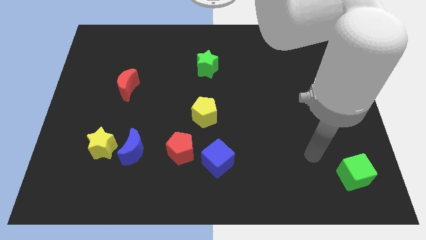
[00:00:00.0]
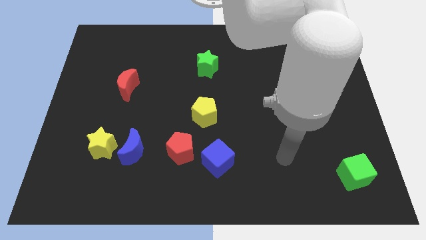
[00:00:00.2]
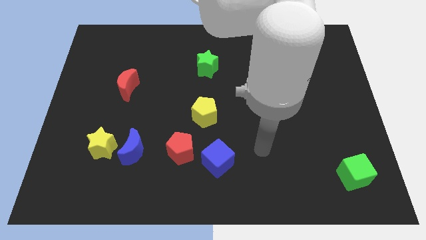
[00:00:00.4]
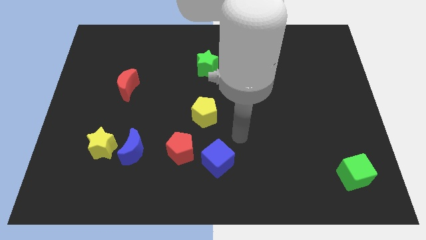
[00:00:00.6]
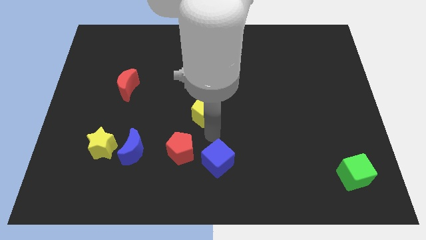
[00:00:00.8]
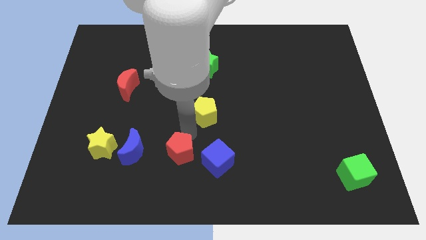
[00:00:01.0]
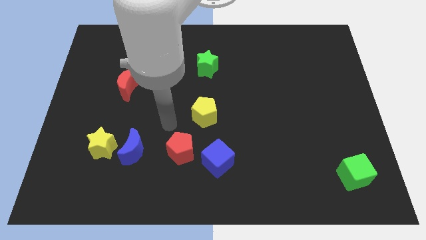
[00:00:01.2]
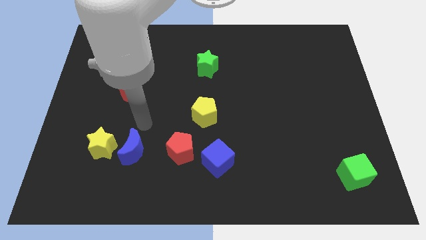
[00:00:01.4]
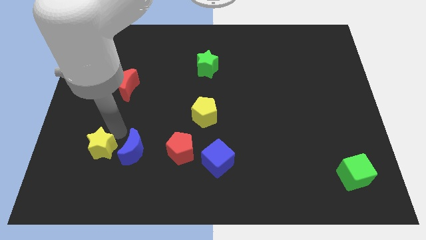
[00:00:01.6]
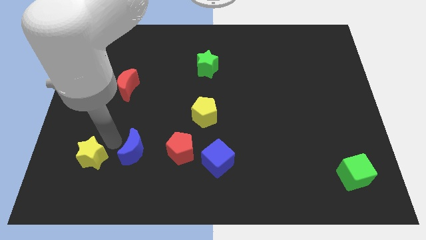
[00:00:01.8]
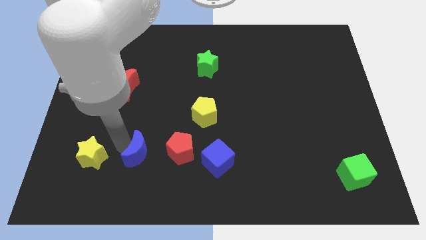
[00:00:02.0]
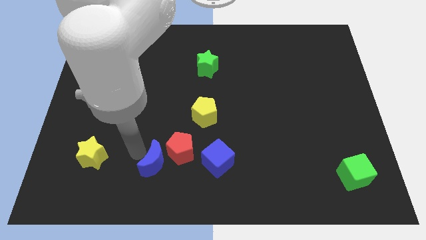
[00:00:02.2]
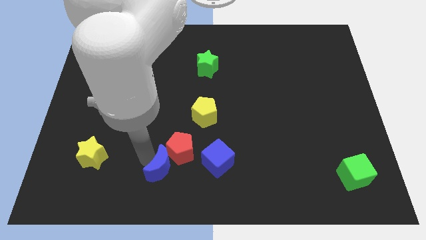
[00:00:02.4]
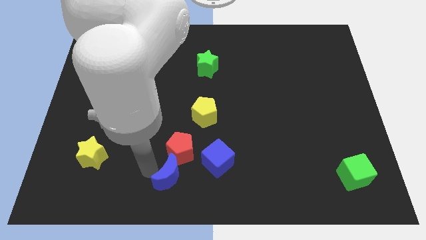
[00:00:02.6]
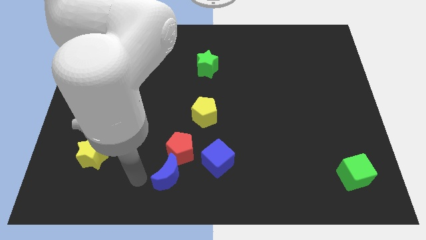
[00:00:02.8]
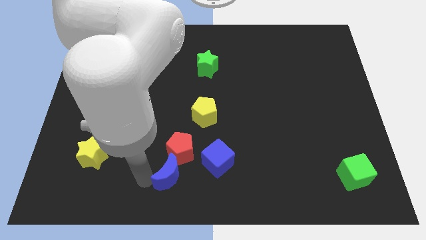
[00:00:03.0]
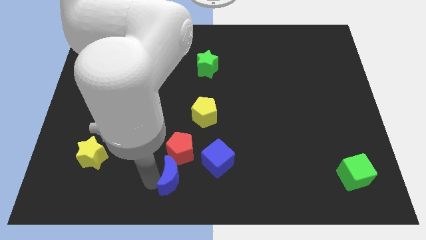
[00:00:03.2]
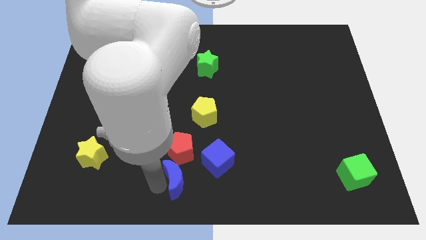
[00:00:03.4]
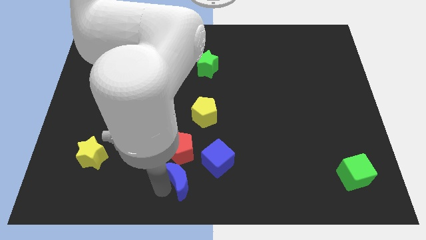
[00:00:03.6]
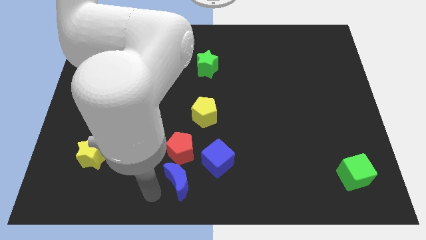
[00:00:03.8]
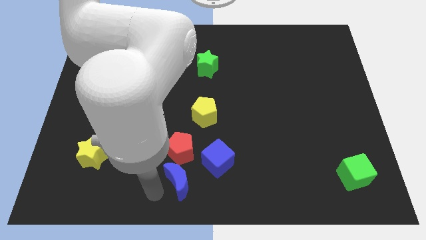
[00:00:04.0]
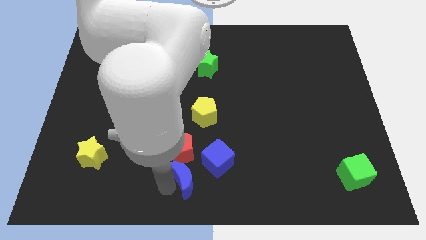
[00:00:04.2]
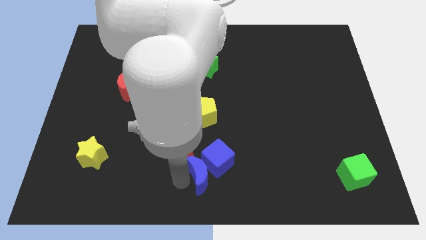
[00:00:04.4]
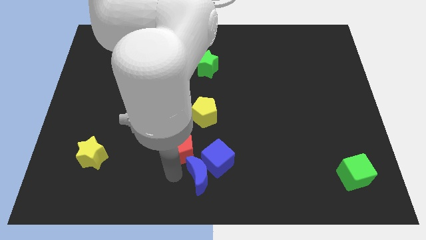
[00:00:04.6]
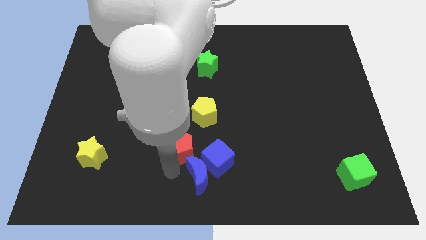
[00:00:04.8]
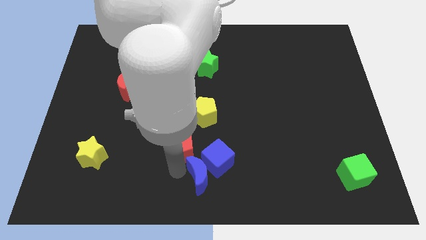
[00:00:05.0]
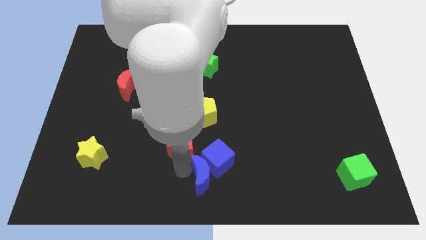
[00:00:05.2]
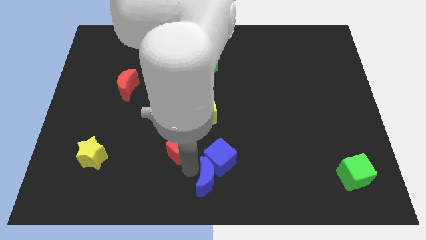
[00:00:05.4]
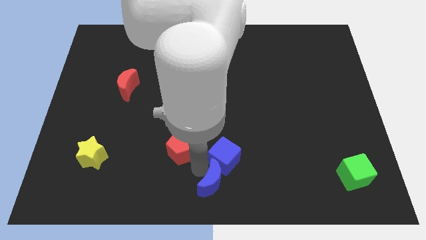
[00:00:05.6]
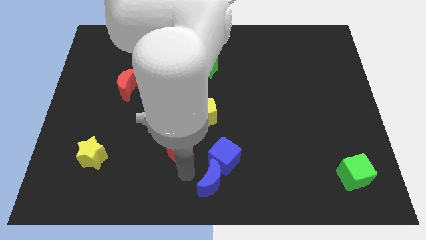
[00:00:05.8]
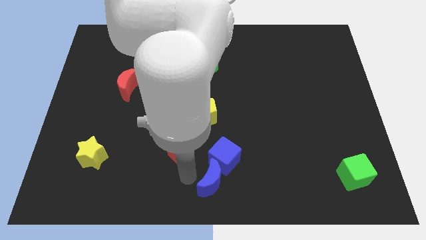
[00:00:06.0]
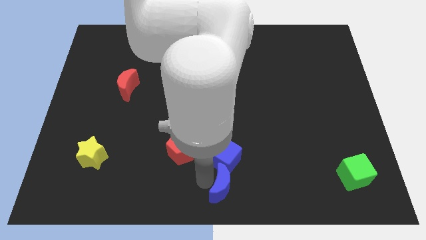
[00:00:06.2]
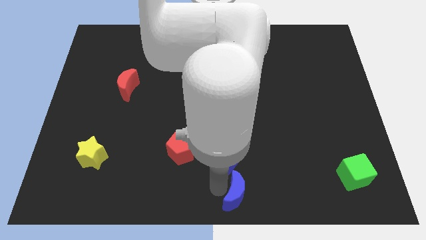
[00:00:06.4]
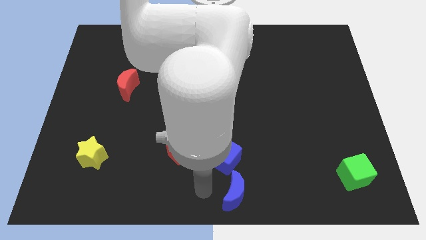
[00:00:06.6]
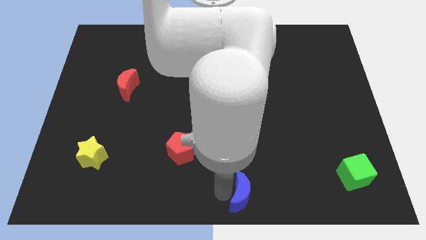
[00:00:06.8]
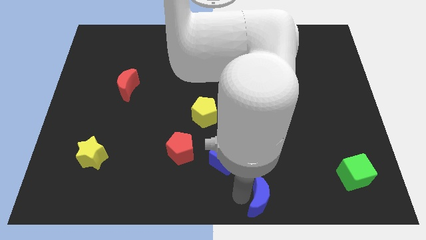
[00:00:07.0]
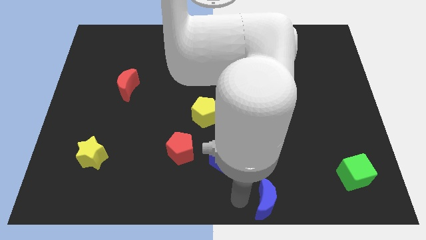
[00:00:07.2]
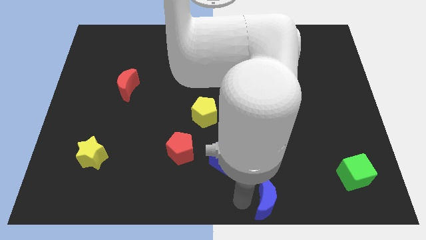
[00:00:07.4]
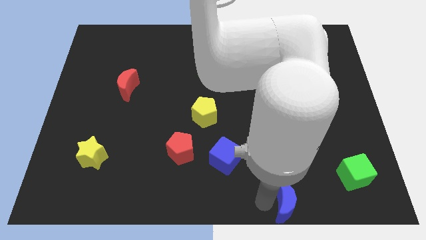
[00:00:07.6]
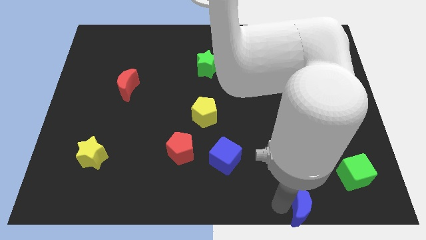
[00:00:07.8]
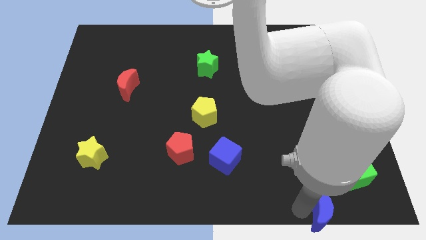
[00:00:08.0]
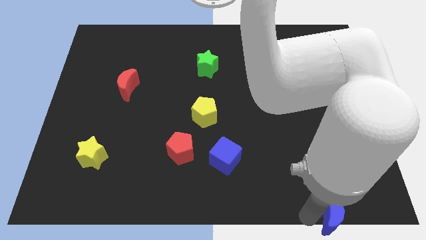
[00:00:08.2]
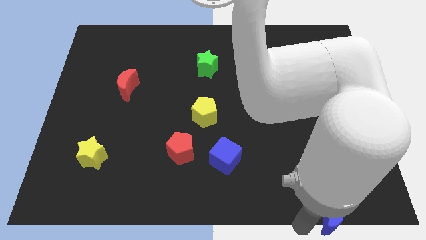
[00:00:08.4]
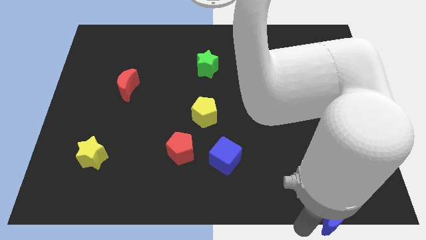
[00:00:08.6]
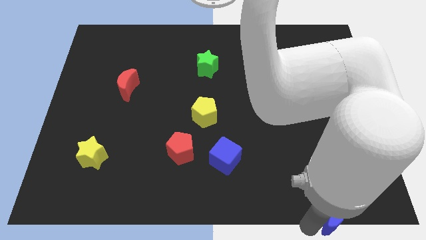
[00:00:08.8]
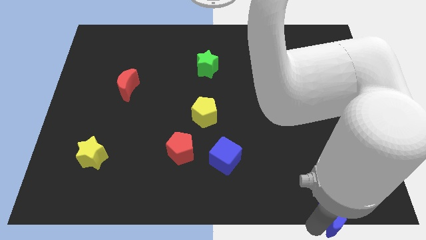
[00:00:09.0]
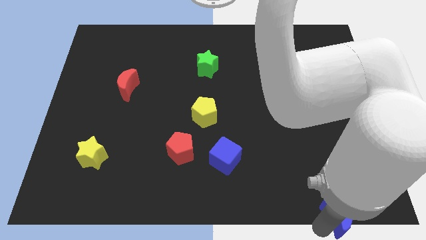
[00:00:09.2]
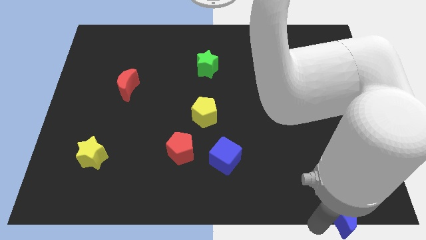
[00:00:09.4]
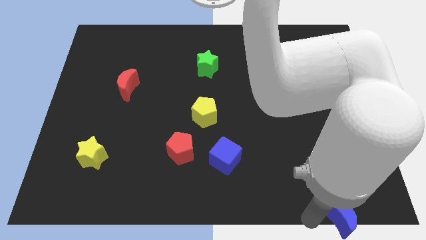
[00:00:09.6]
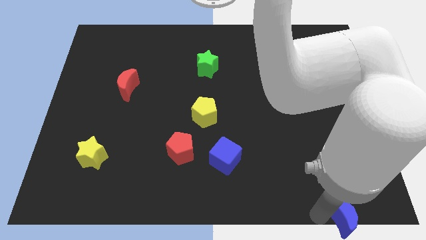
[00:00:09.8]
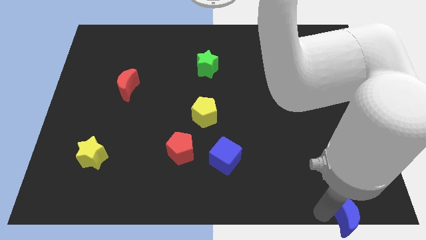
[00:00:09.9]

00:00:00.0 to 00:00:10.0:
move the blue moon to the lower right corner

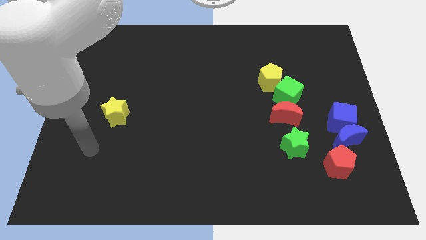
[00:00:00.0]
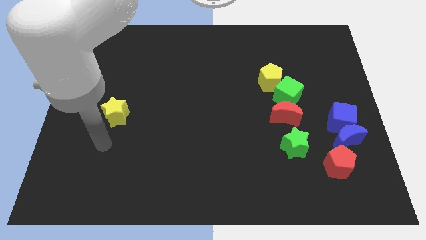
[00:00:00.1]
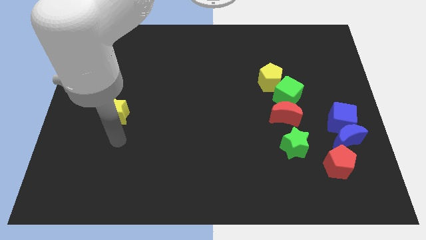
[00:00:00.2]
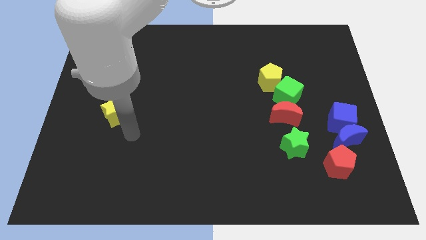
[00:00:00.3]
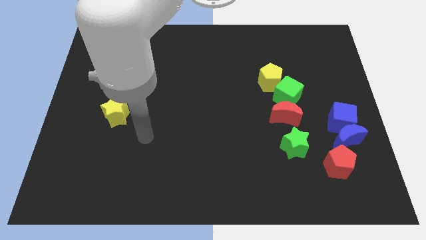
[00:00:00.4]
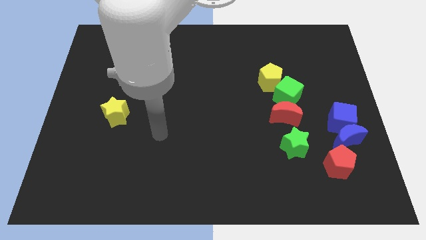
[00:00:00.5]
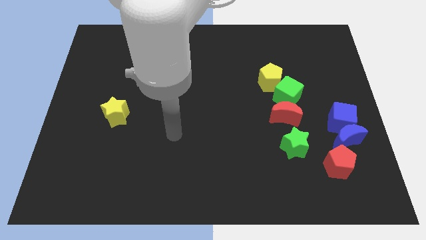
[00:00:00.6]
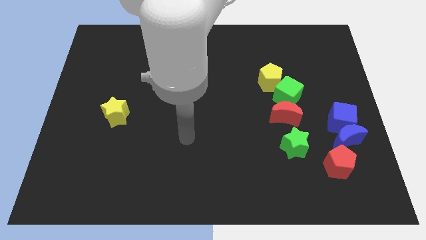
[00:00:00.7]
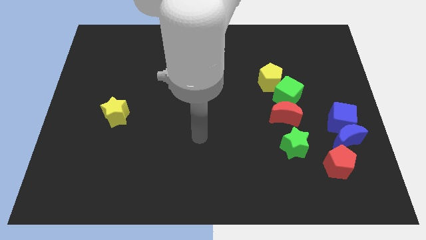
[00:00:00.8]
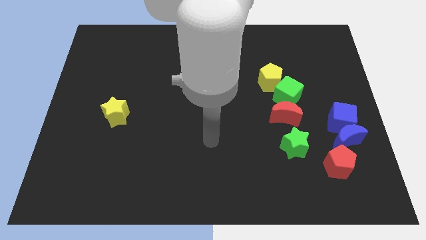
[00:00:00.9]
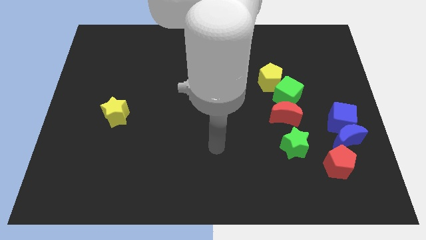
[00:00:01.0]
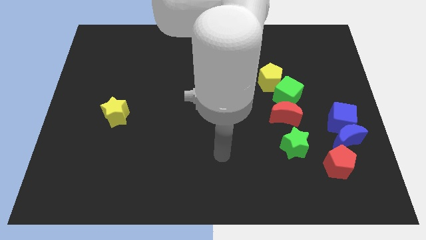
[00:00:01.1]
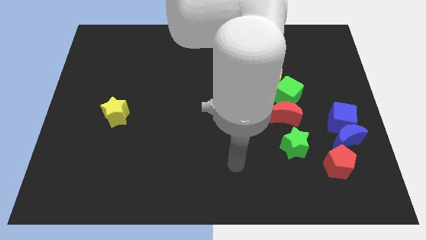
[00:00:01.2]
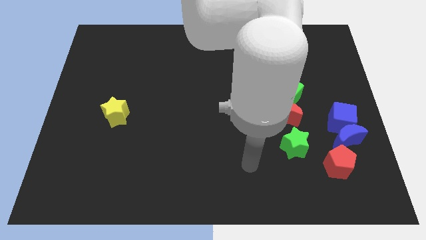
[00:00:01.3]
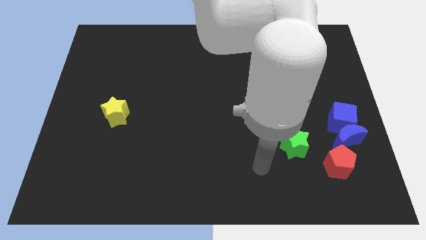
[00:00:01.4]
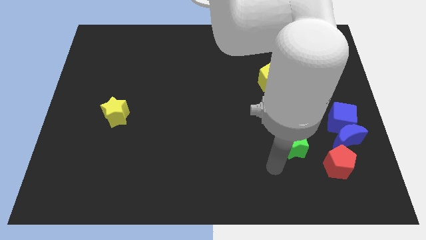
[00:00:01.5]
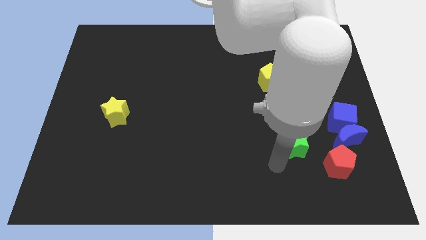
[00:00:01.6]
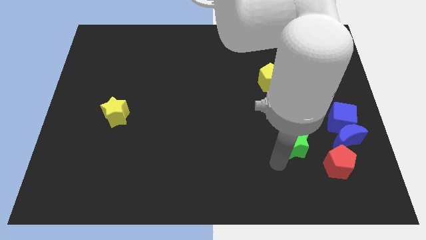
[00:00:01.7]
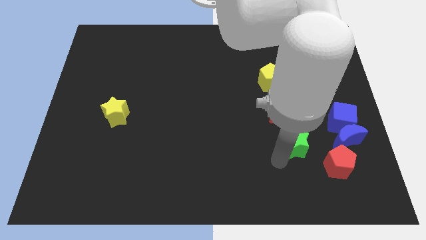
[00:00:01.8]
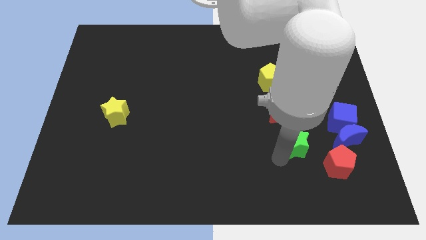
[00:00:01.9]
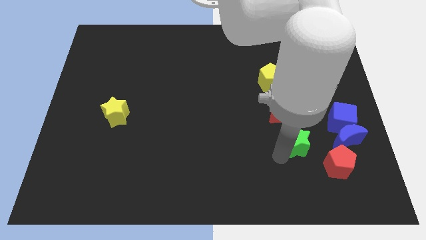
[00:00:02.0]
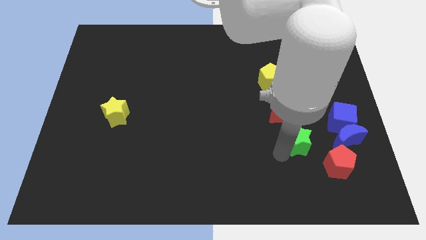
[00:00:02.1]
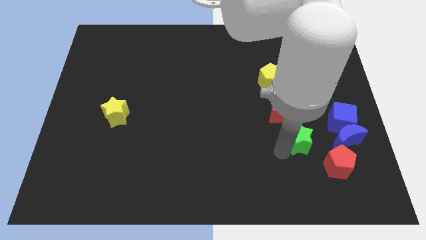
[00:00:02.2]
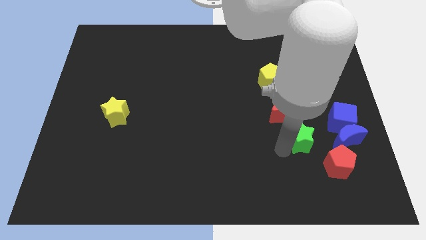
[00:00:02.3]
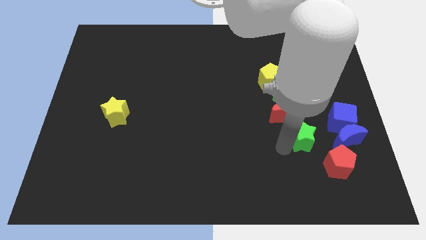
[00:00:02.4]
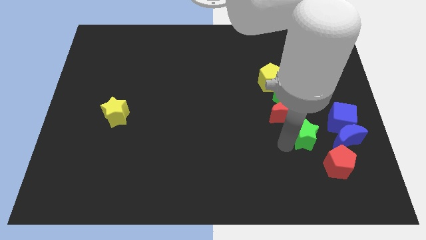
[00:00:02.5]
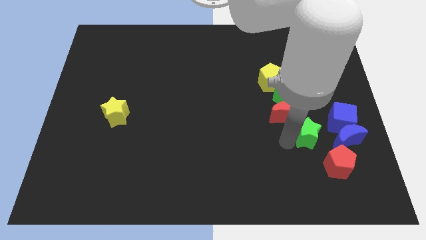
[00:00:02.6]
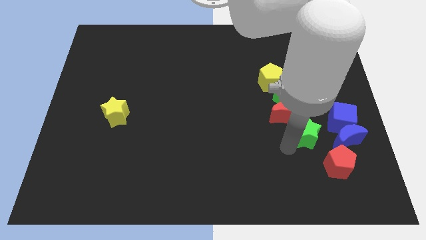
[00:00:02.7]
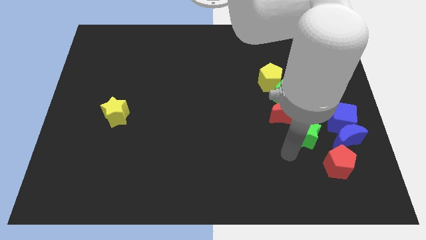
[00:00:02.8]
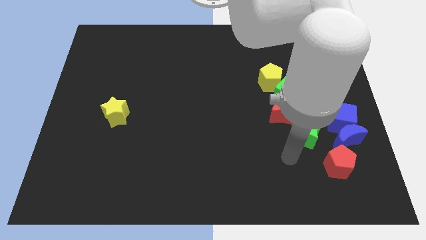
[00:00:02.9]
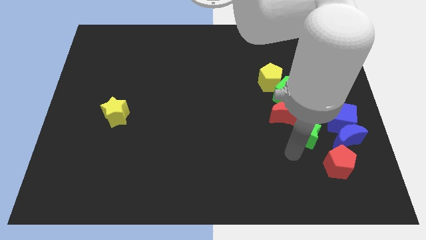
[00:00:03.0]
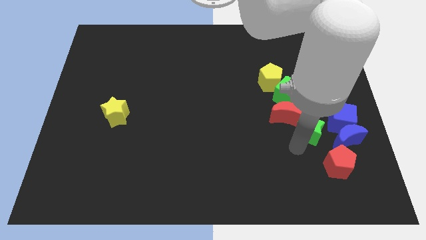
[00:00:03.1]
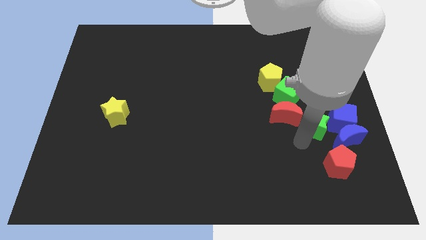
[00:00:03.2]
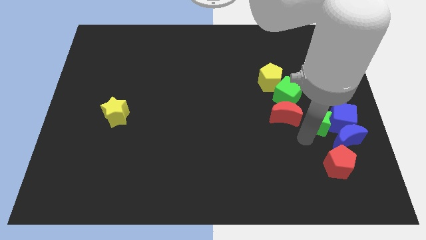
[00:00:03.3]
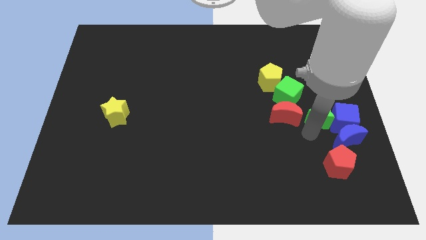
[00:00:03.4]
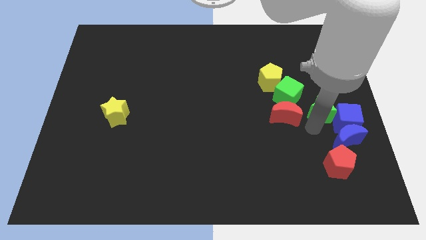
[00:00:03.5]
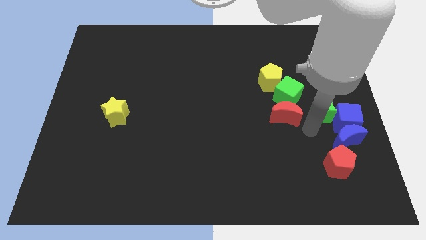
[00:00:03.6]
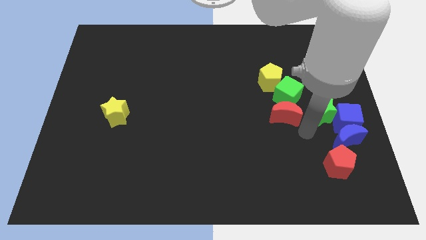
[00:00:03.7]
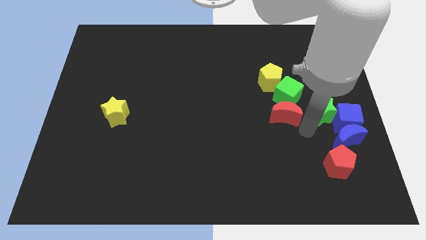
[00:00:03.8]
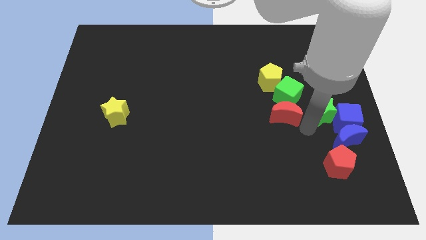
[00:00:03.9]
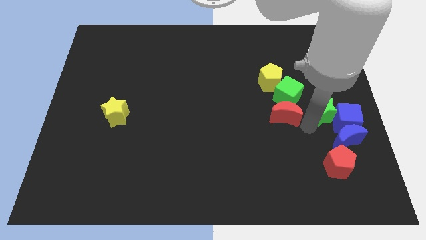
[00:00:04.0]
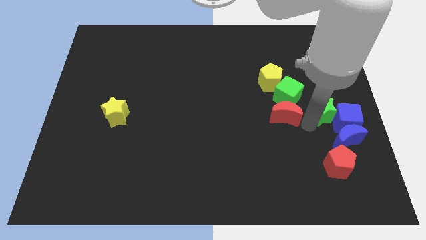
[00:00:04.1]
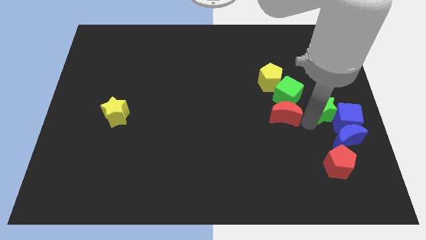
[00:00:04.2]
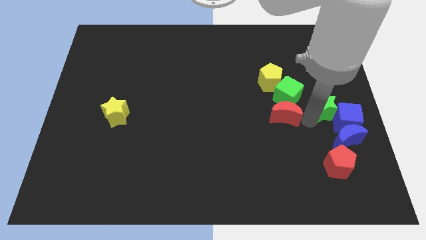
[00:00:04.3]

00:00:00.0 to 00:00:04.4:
slide the green star to the right side
